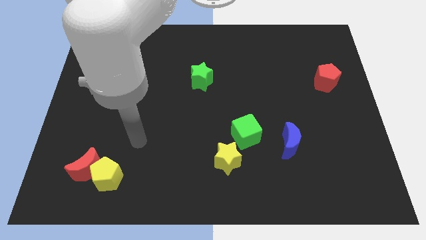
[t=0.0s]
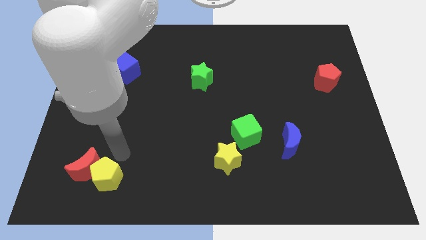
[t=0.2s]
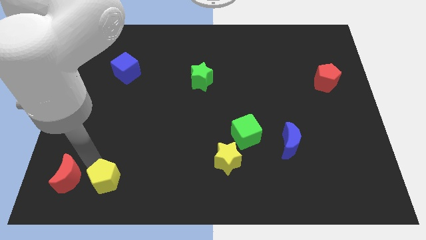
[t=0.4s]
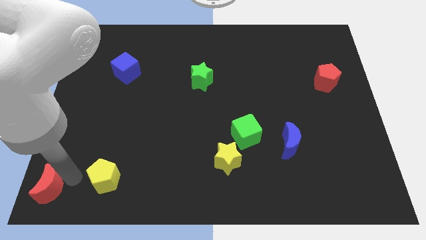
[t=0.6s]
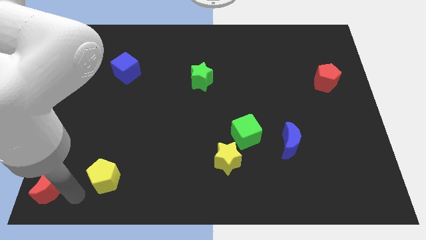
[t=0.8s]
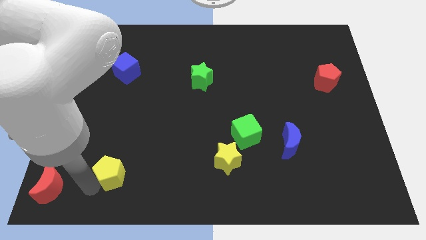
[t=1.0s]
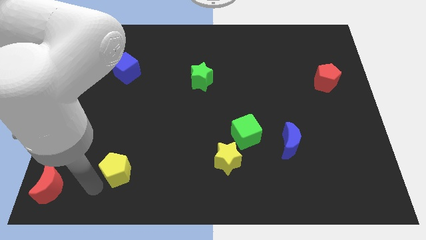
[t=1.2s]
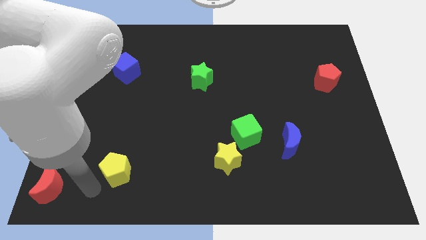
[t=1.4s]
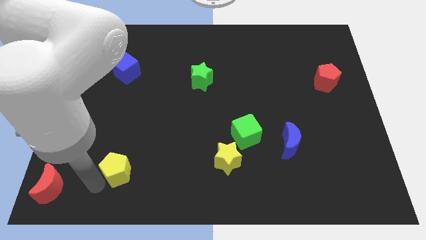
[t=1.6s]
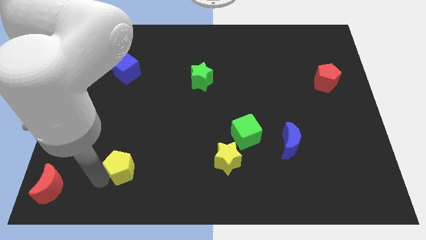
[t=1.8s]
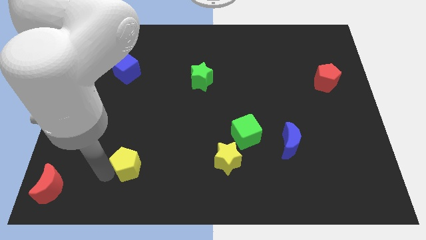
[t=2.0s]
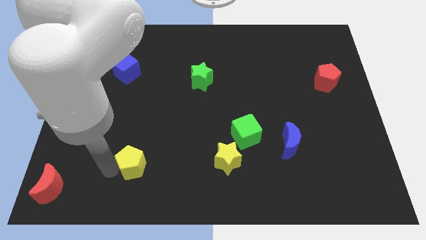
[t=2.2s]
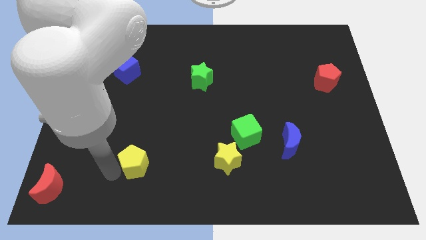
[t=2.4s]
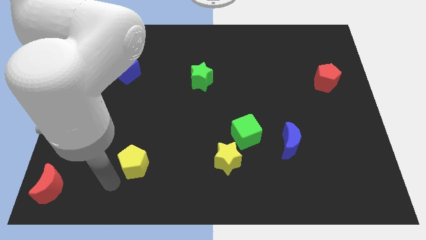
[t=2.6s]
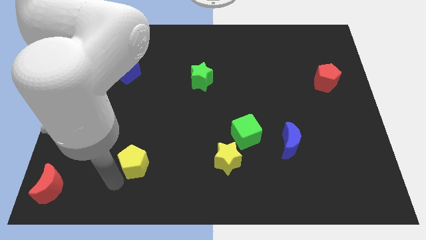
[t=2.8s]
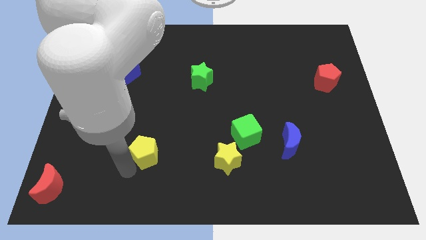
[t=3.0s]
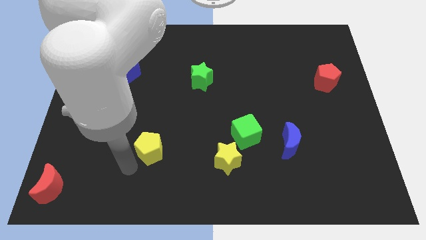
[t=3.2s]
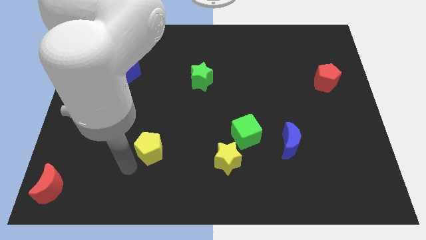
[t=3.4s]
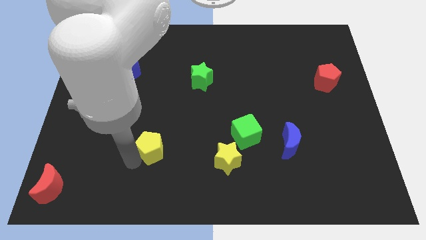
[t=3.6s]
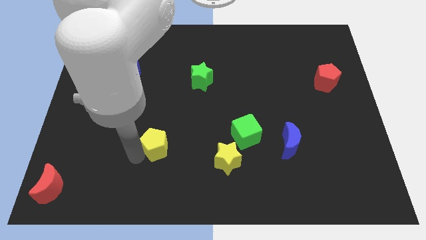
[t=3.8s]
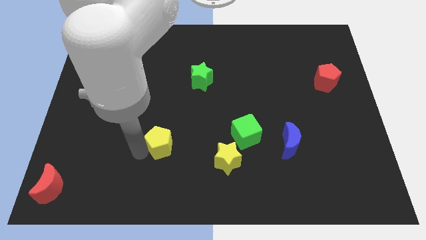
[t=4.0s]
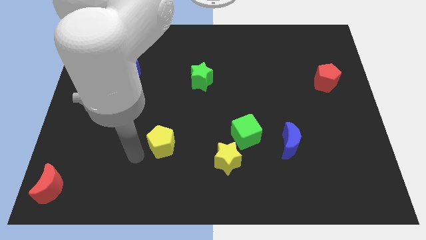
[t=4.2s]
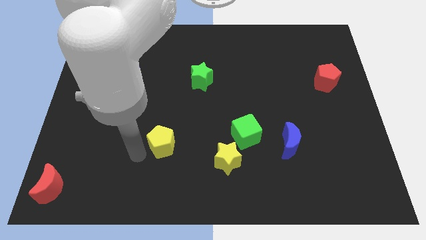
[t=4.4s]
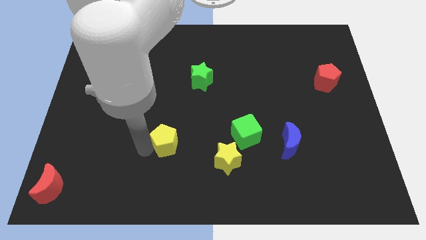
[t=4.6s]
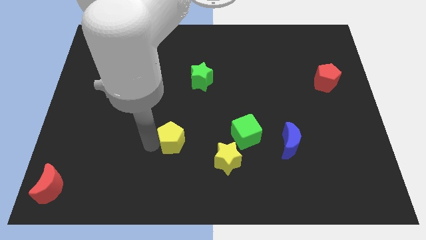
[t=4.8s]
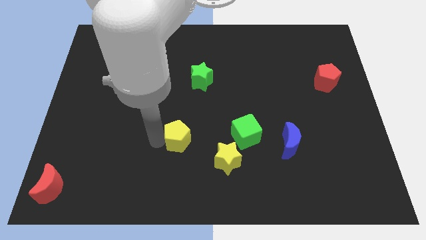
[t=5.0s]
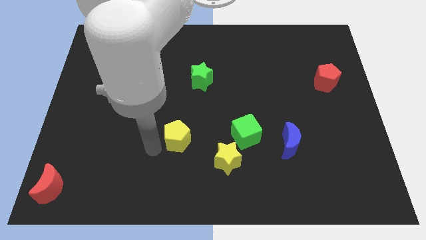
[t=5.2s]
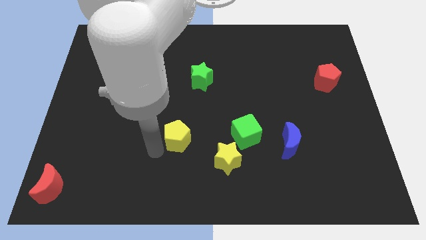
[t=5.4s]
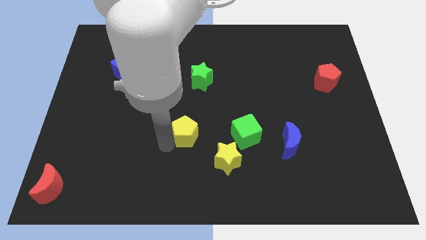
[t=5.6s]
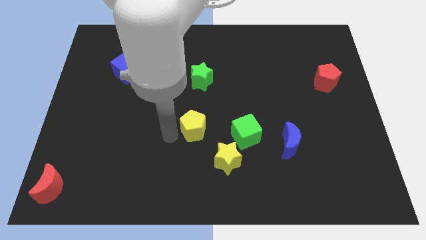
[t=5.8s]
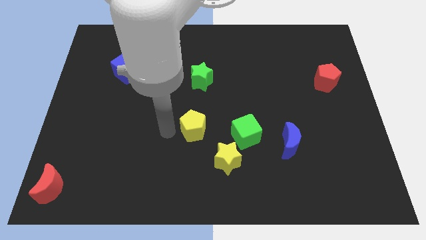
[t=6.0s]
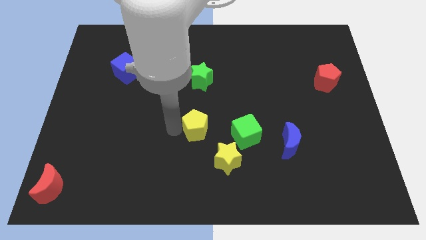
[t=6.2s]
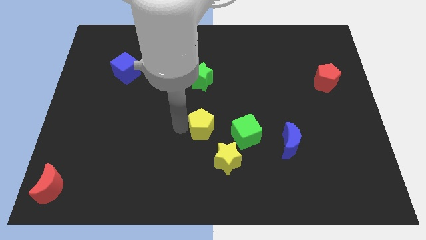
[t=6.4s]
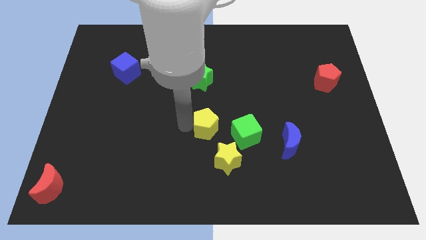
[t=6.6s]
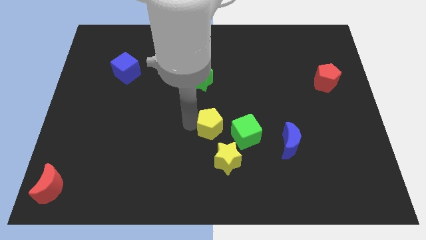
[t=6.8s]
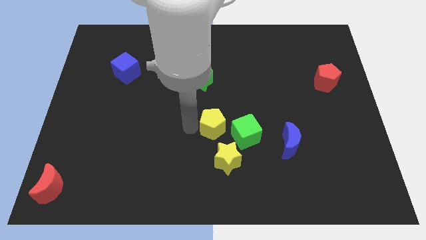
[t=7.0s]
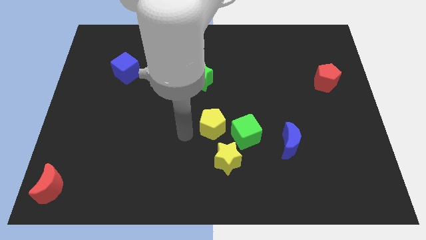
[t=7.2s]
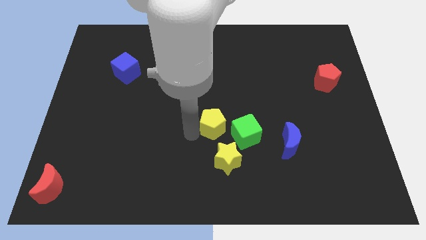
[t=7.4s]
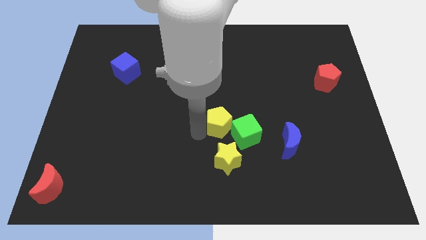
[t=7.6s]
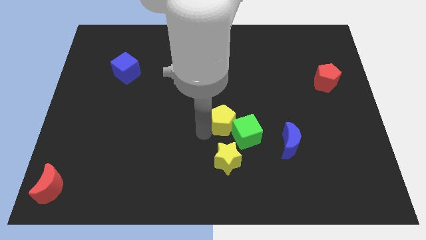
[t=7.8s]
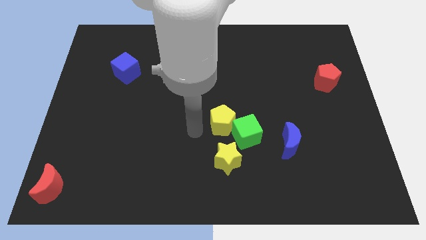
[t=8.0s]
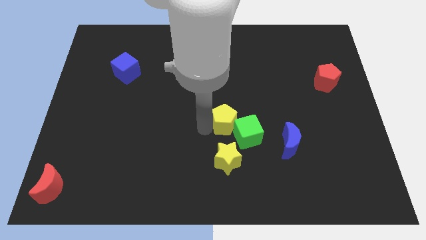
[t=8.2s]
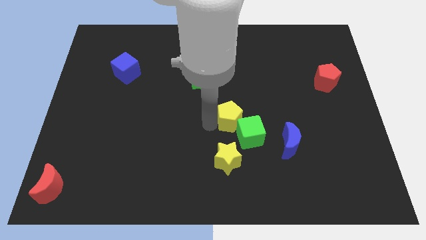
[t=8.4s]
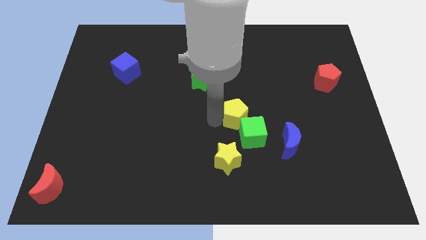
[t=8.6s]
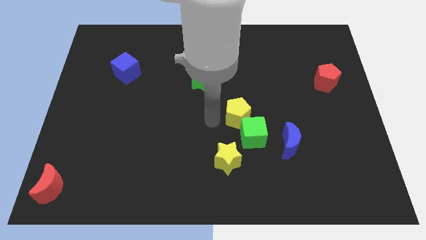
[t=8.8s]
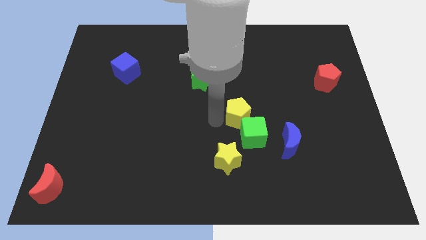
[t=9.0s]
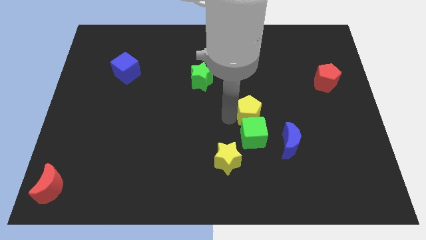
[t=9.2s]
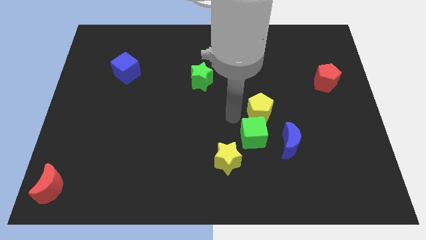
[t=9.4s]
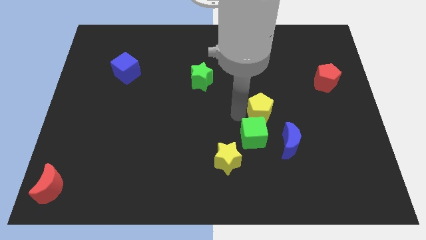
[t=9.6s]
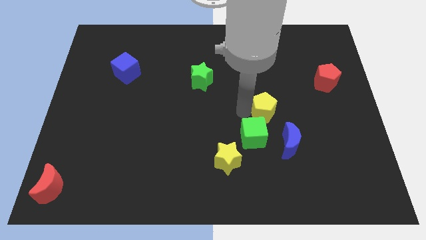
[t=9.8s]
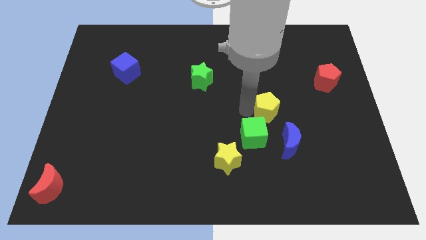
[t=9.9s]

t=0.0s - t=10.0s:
put the yellow pentagon to the top side of the blue moon

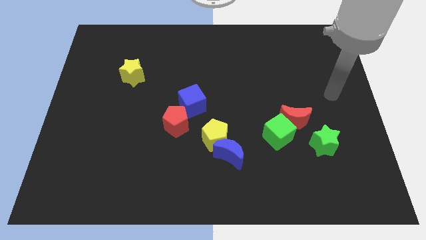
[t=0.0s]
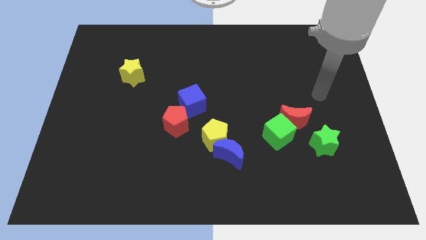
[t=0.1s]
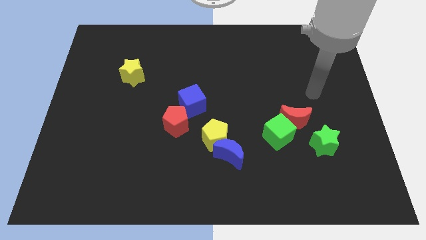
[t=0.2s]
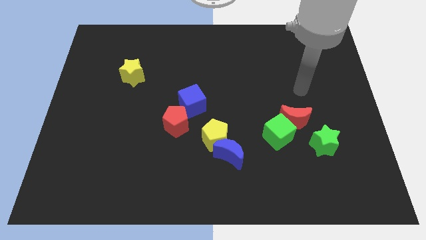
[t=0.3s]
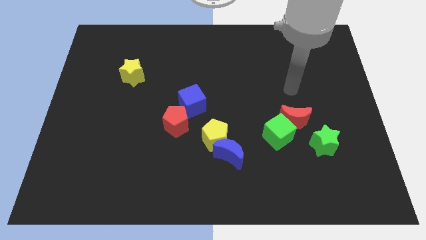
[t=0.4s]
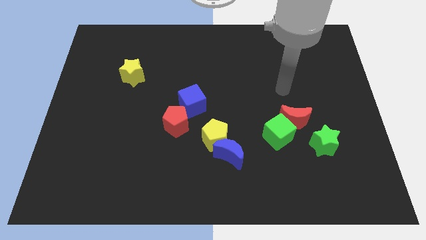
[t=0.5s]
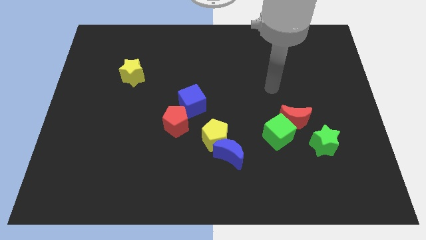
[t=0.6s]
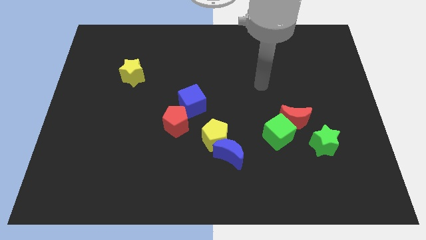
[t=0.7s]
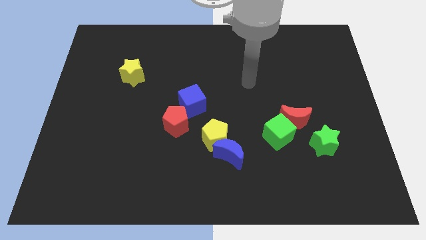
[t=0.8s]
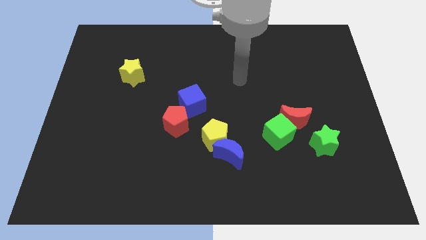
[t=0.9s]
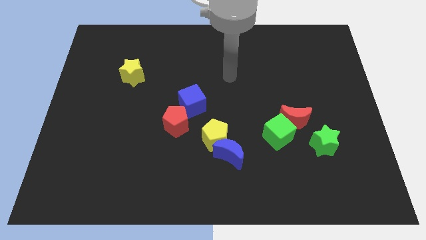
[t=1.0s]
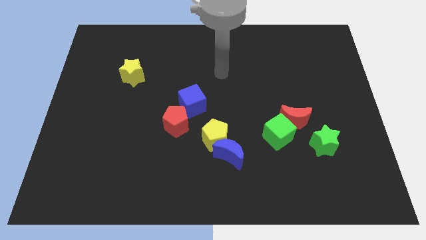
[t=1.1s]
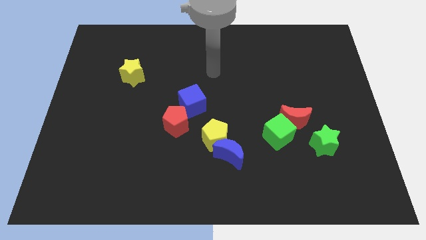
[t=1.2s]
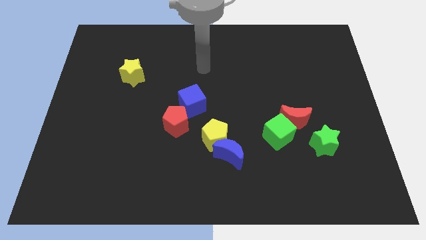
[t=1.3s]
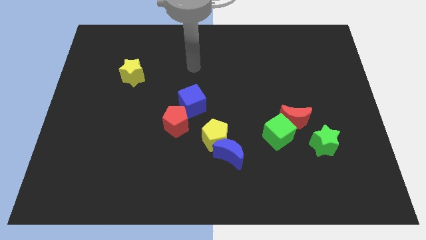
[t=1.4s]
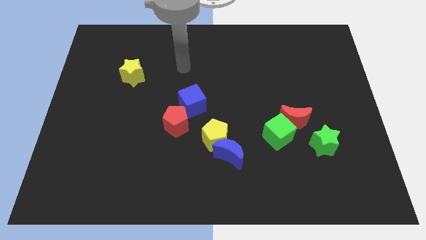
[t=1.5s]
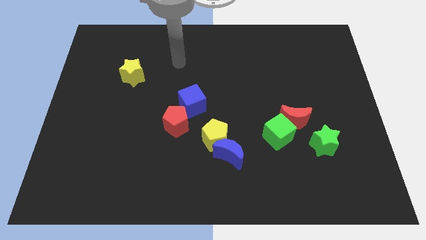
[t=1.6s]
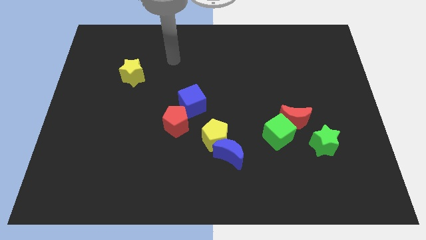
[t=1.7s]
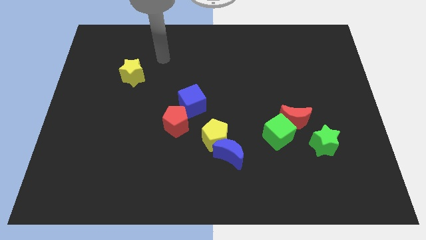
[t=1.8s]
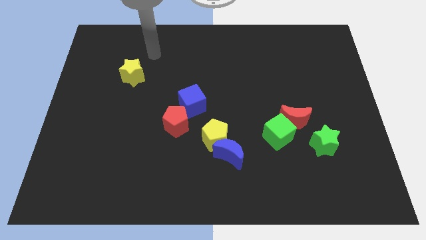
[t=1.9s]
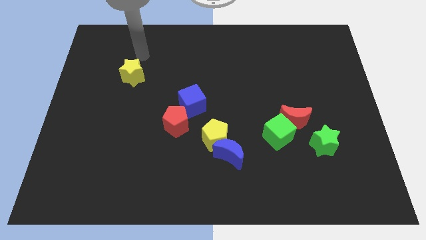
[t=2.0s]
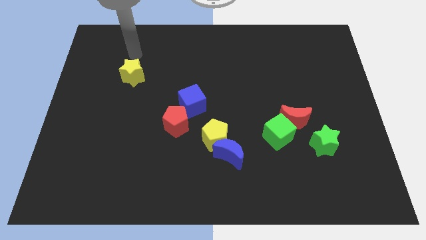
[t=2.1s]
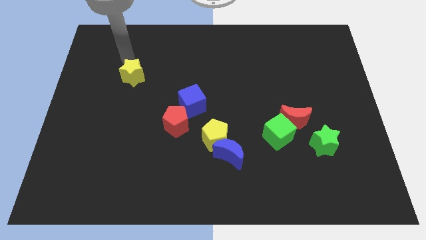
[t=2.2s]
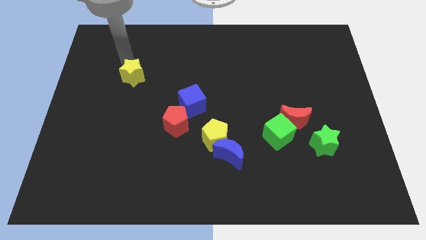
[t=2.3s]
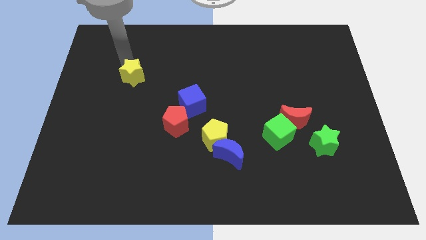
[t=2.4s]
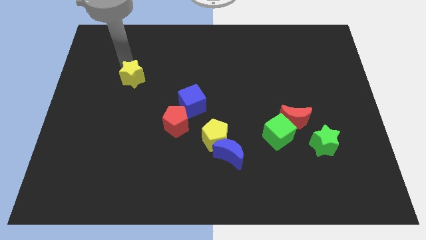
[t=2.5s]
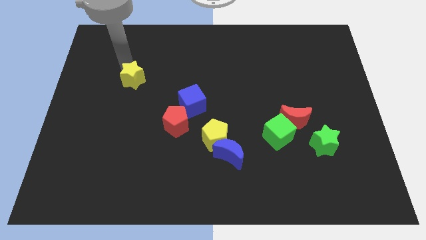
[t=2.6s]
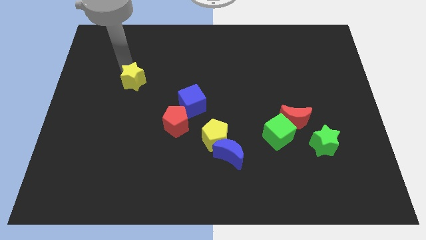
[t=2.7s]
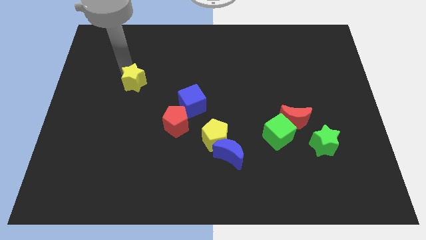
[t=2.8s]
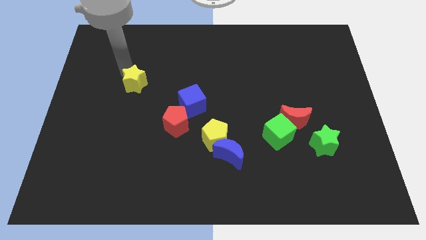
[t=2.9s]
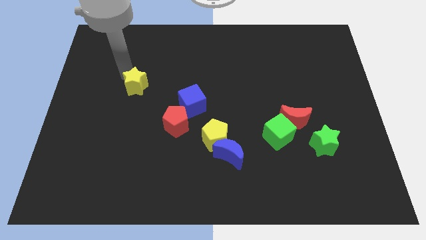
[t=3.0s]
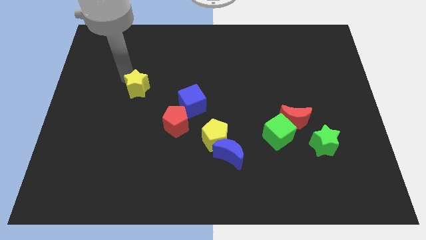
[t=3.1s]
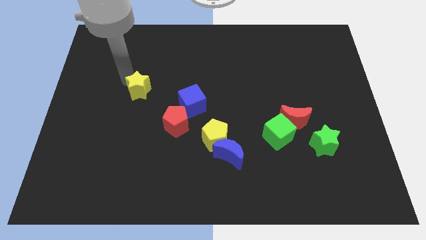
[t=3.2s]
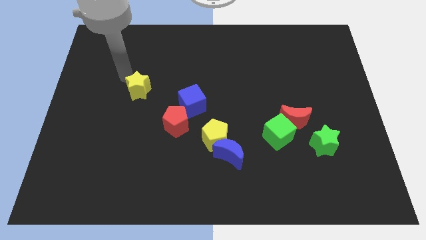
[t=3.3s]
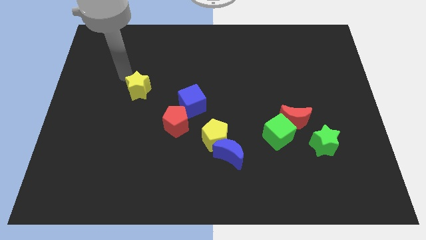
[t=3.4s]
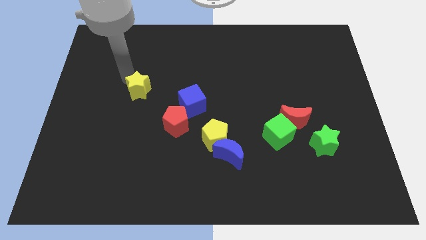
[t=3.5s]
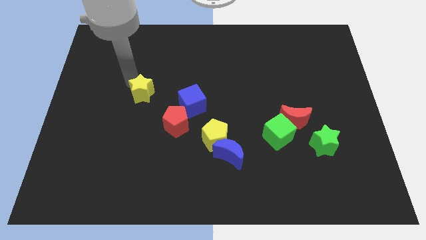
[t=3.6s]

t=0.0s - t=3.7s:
slide the yellow star to the top left side of the red pentagon
